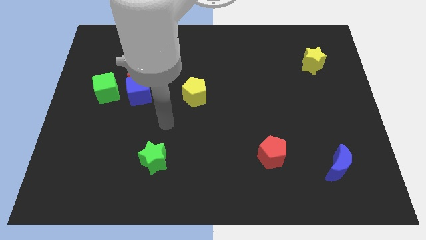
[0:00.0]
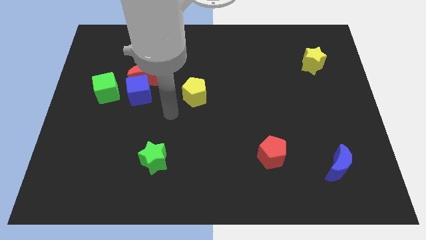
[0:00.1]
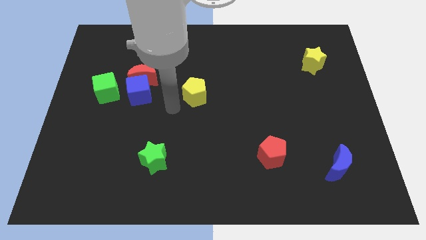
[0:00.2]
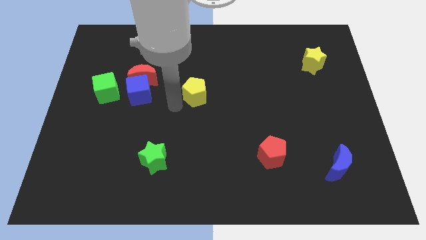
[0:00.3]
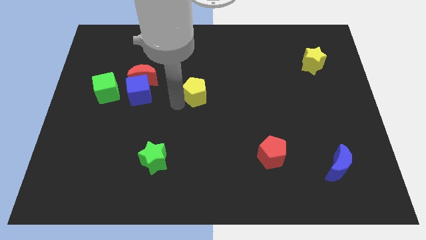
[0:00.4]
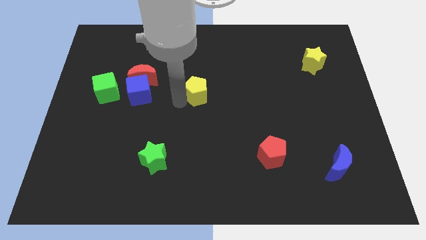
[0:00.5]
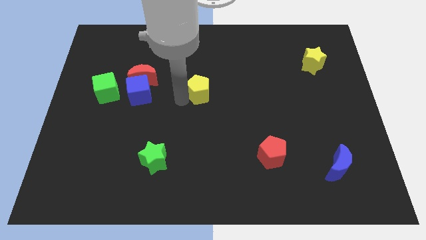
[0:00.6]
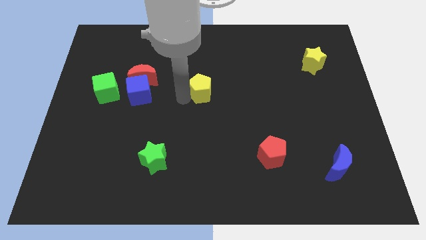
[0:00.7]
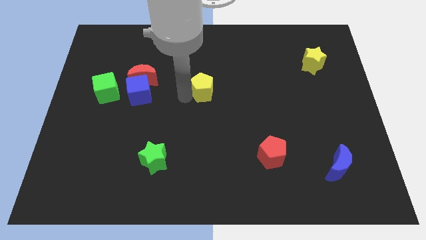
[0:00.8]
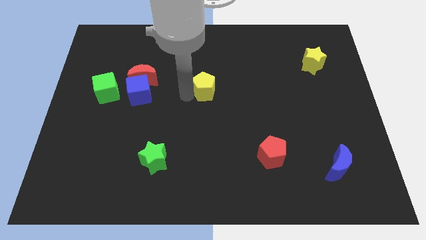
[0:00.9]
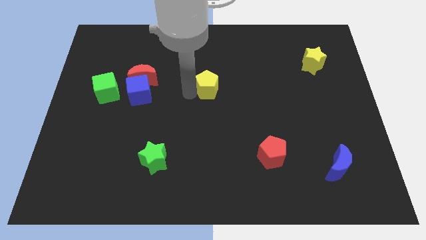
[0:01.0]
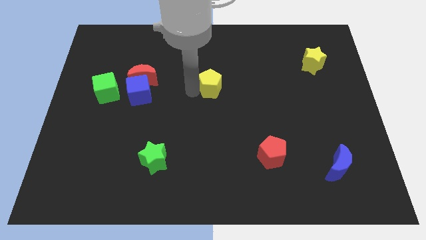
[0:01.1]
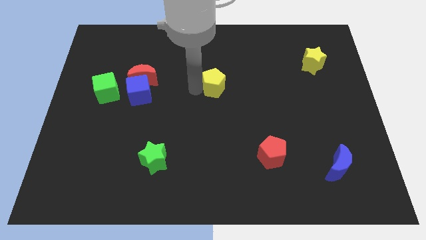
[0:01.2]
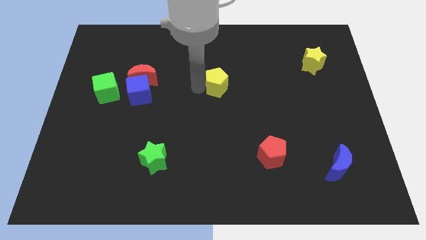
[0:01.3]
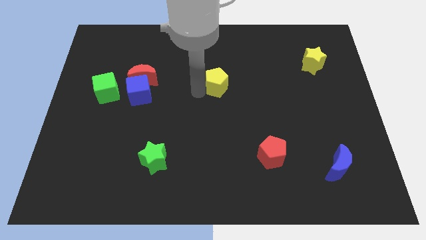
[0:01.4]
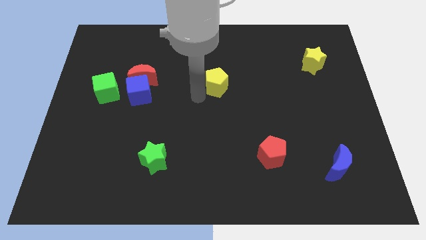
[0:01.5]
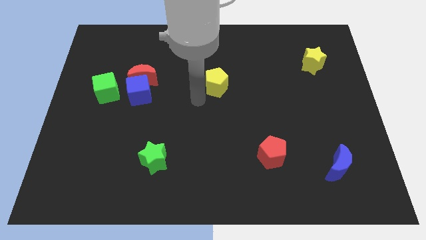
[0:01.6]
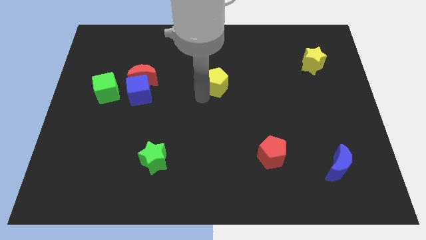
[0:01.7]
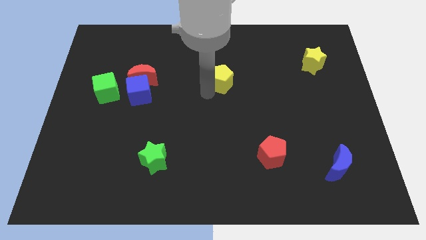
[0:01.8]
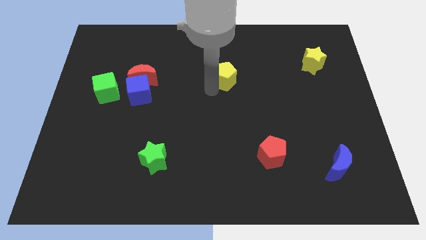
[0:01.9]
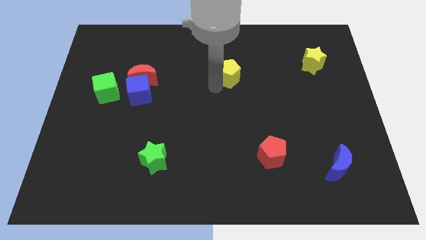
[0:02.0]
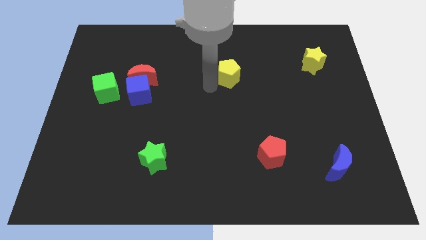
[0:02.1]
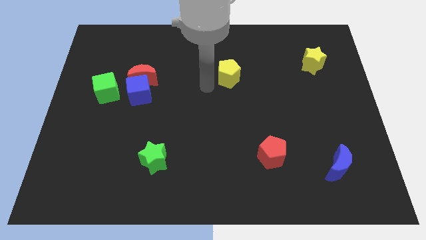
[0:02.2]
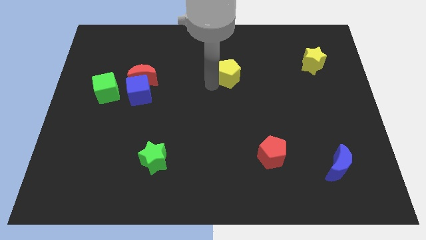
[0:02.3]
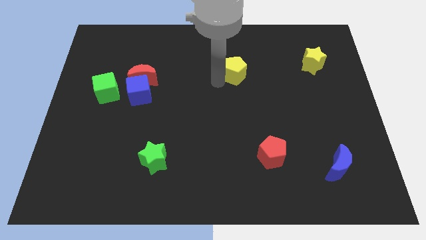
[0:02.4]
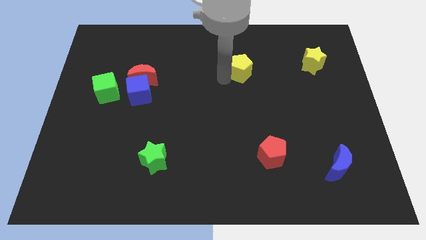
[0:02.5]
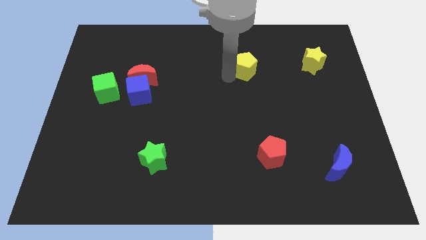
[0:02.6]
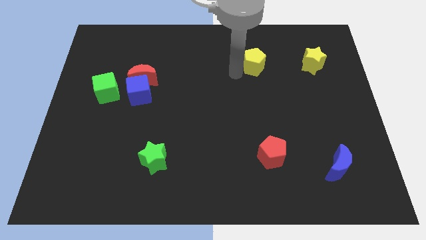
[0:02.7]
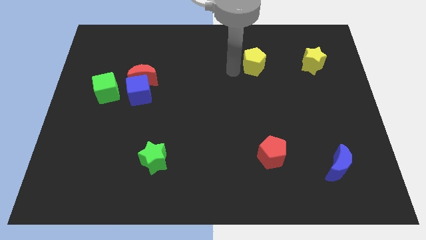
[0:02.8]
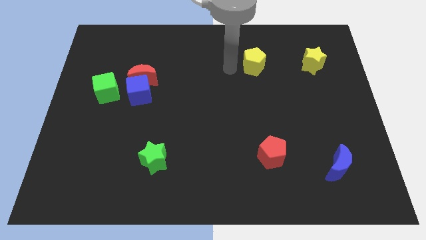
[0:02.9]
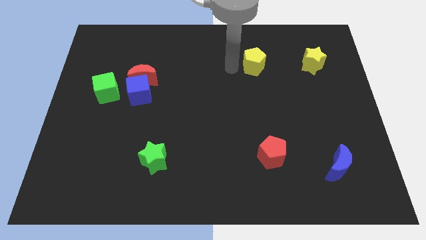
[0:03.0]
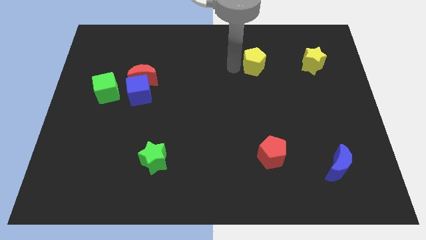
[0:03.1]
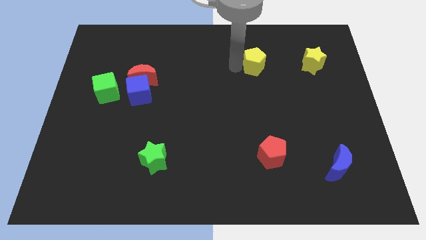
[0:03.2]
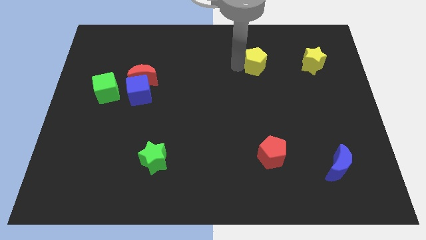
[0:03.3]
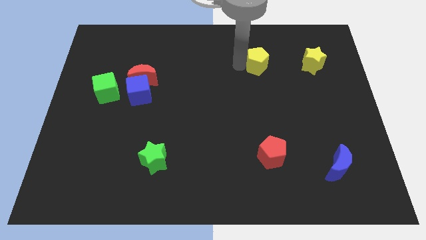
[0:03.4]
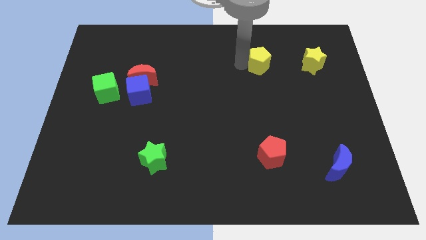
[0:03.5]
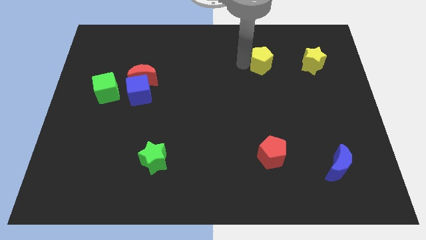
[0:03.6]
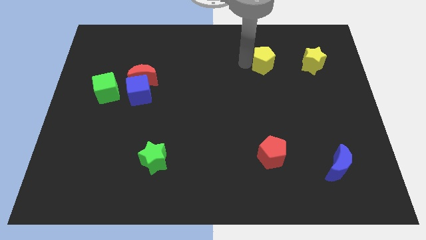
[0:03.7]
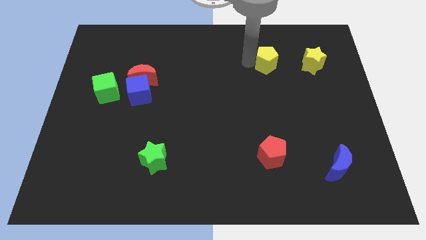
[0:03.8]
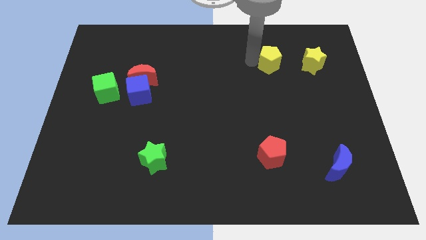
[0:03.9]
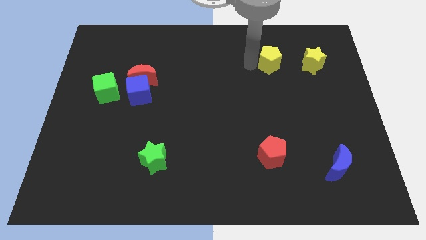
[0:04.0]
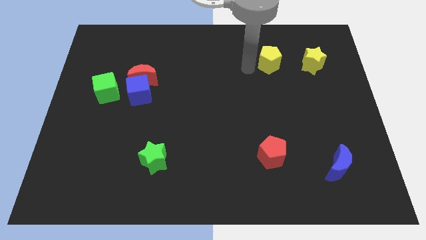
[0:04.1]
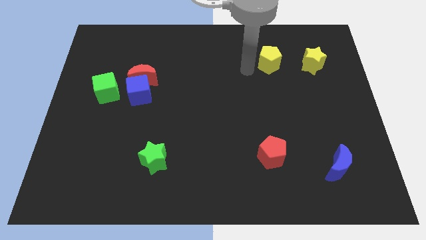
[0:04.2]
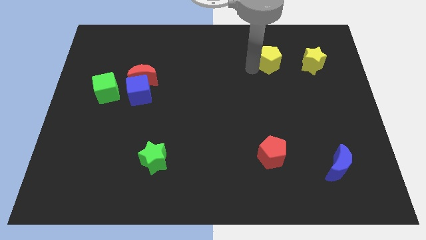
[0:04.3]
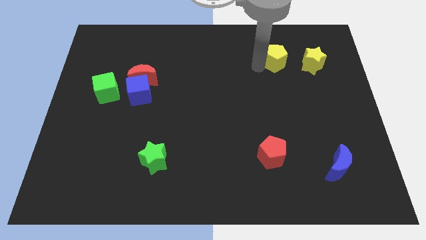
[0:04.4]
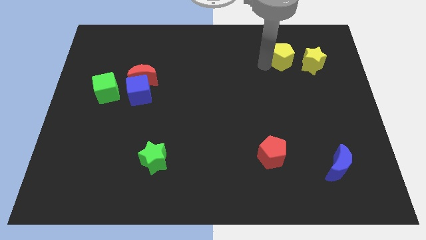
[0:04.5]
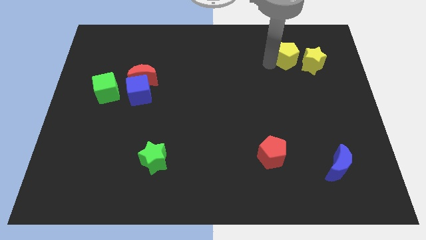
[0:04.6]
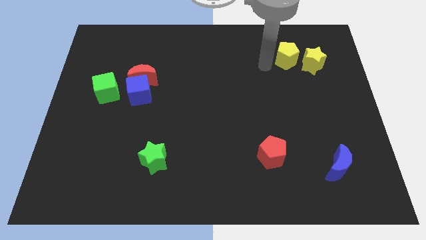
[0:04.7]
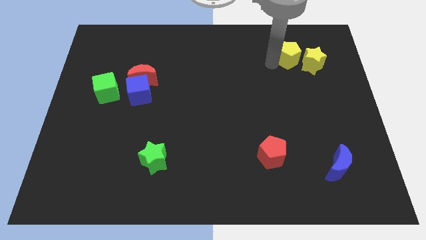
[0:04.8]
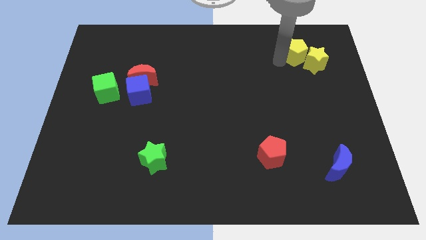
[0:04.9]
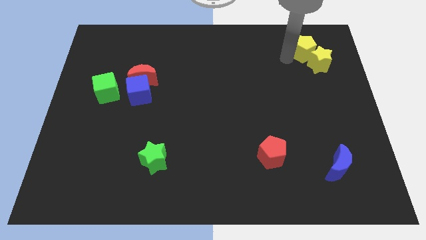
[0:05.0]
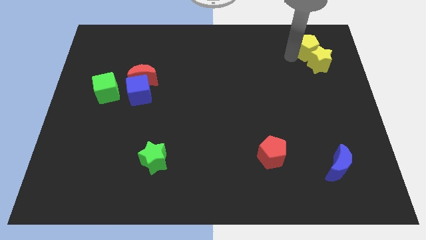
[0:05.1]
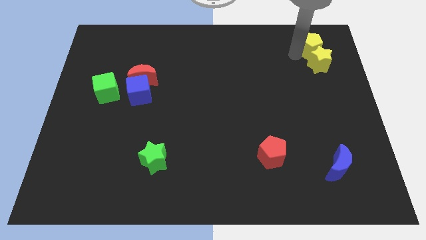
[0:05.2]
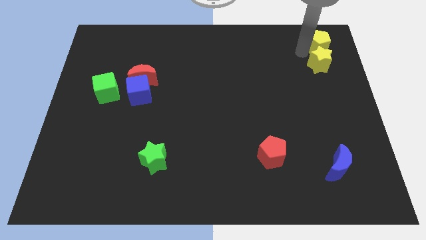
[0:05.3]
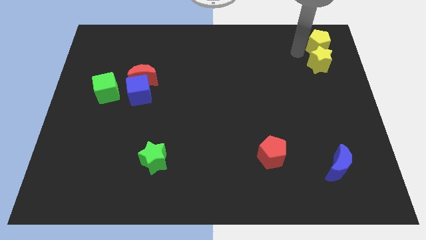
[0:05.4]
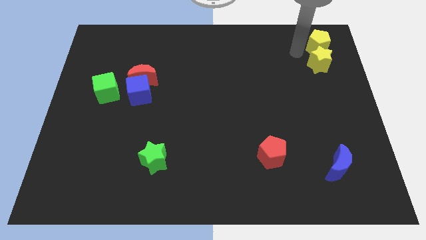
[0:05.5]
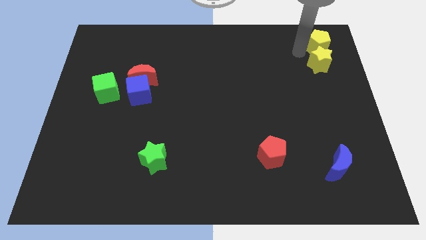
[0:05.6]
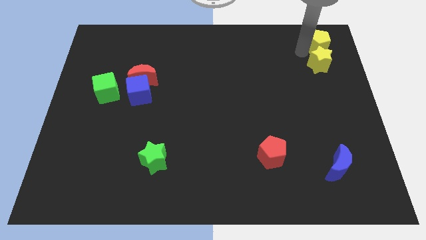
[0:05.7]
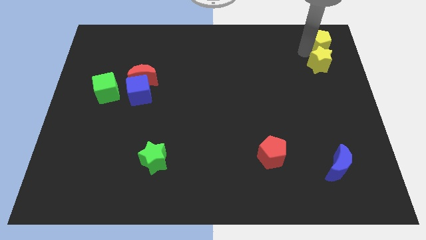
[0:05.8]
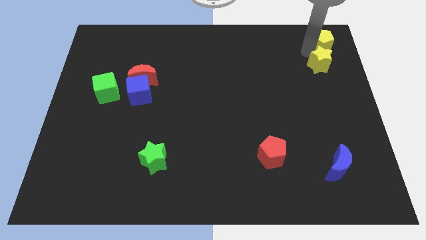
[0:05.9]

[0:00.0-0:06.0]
slide the yellow pentagon to the upper right corner
